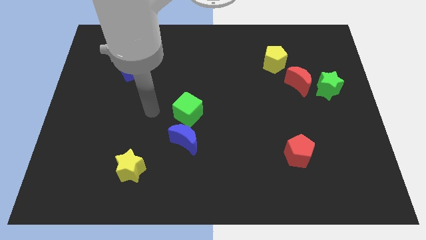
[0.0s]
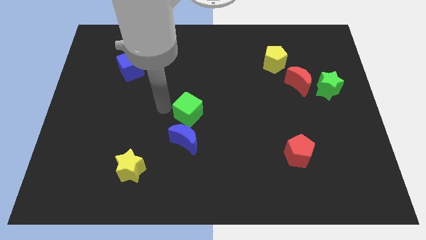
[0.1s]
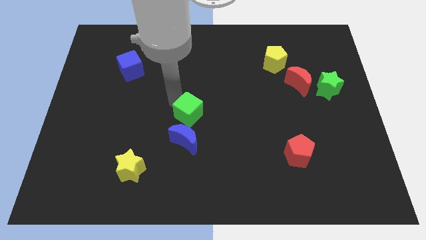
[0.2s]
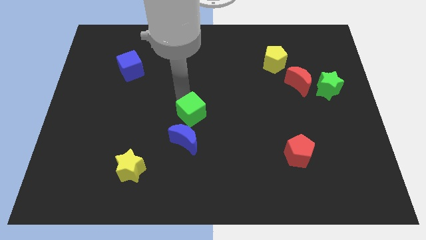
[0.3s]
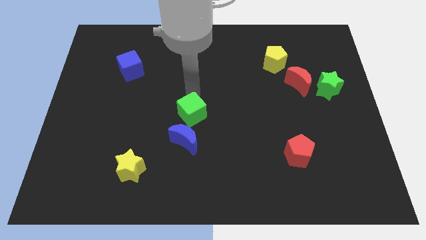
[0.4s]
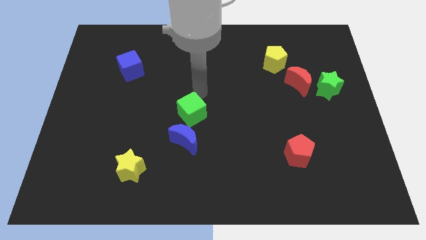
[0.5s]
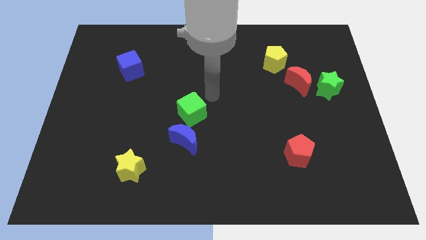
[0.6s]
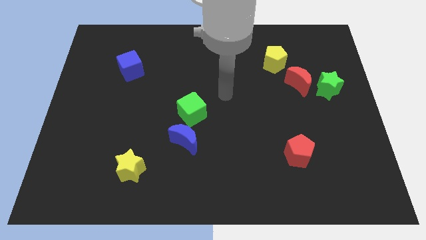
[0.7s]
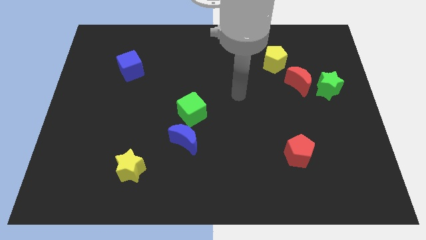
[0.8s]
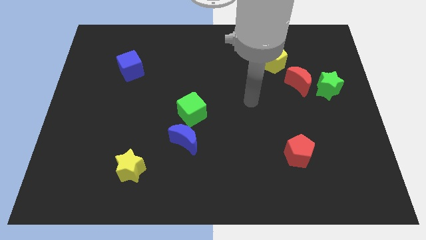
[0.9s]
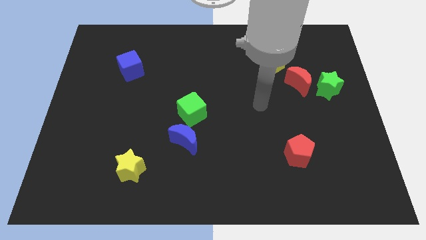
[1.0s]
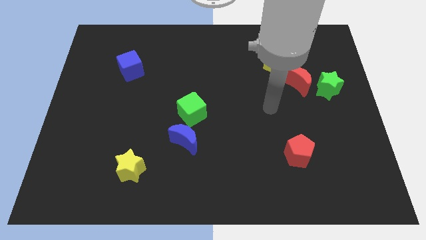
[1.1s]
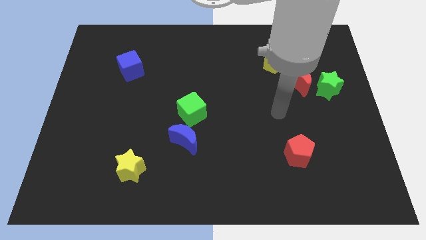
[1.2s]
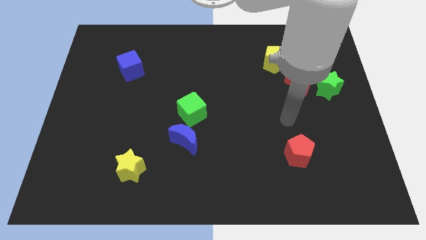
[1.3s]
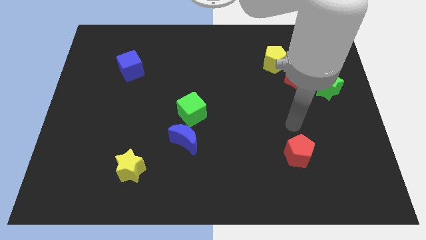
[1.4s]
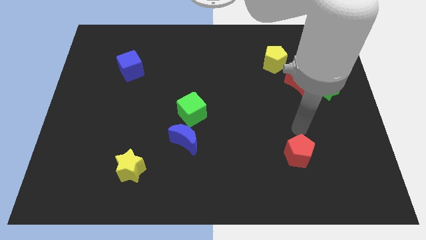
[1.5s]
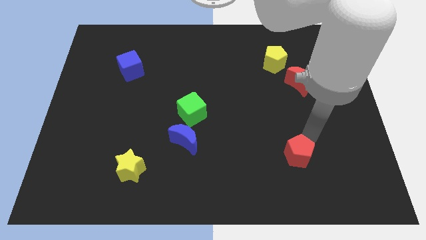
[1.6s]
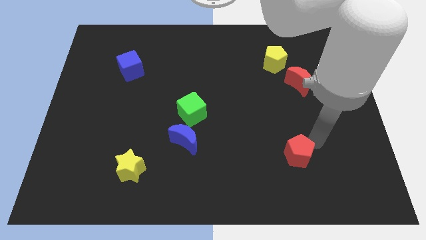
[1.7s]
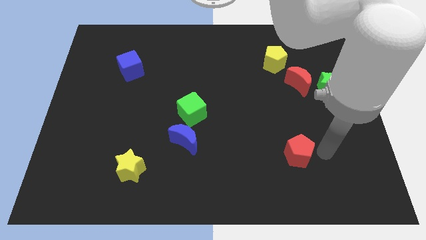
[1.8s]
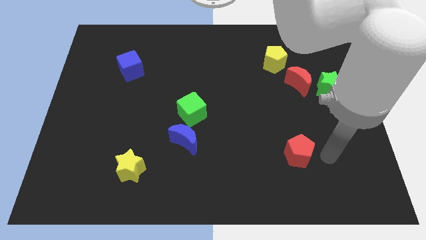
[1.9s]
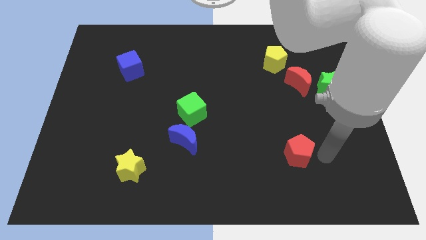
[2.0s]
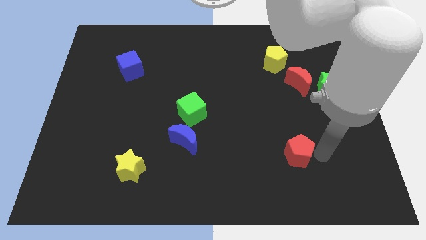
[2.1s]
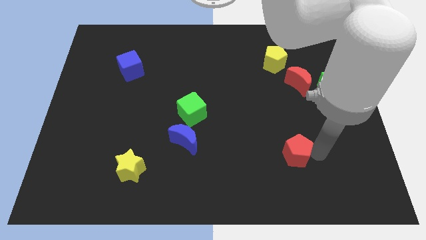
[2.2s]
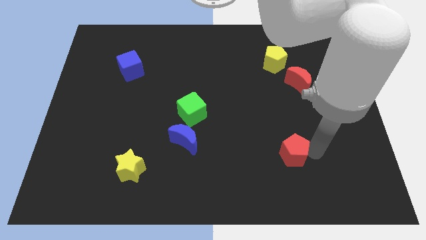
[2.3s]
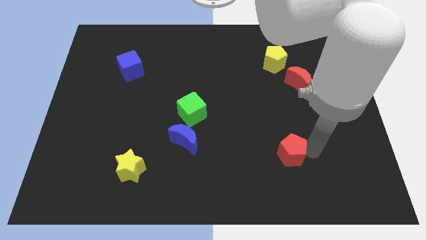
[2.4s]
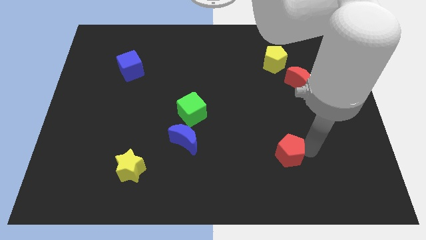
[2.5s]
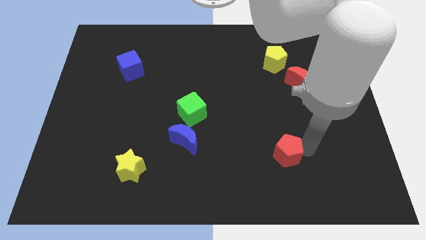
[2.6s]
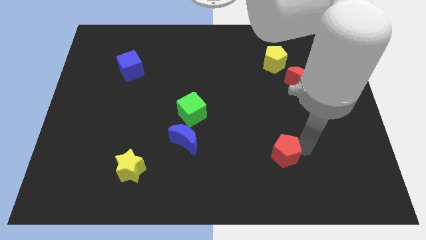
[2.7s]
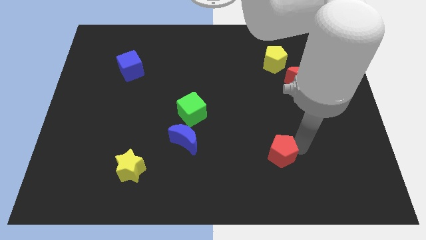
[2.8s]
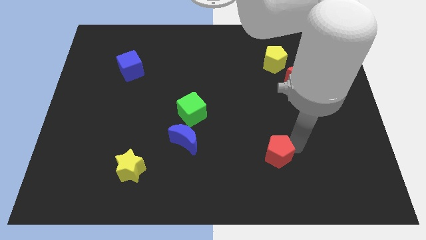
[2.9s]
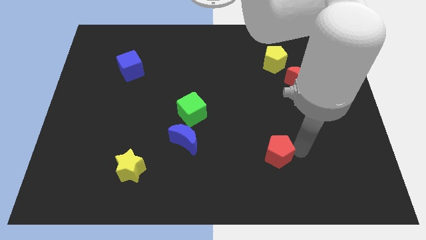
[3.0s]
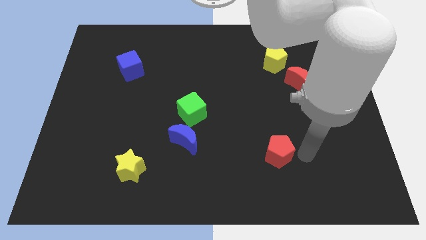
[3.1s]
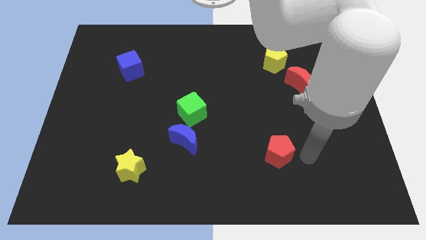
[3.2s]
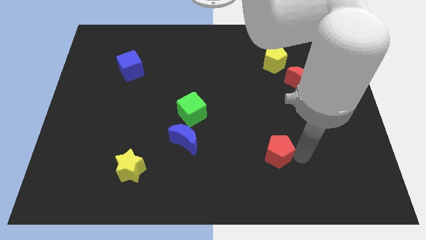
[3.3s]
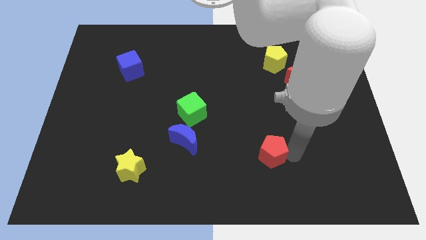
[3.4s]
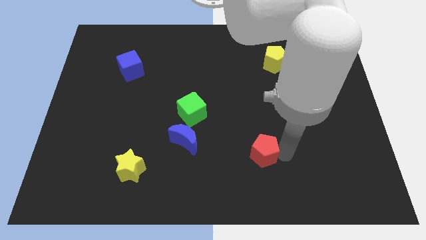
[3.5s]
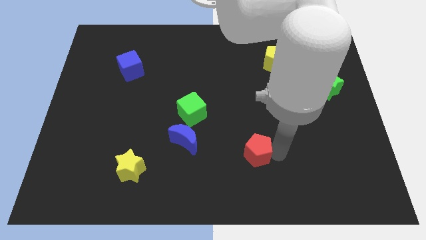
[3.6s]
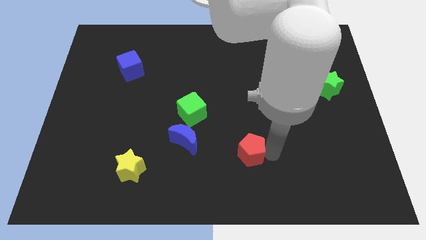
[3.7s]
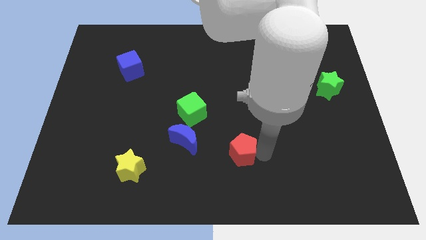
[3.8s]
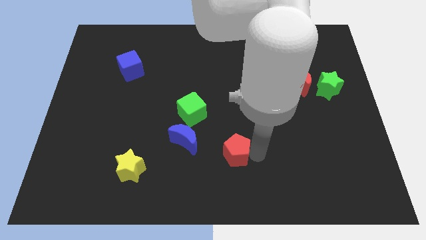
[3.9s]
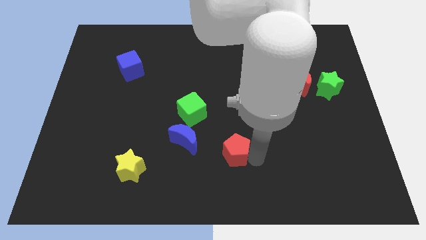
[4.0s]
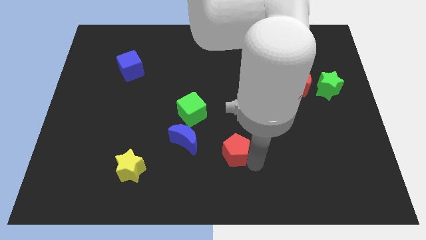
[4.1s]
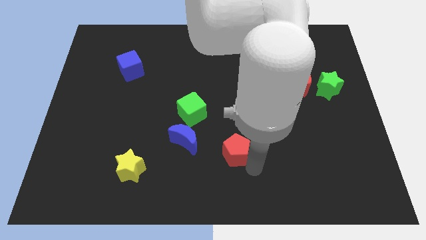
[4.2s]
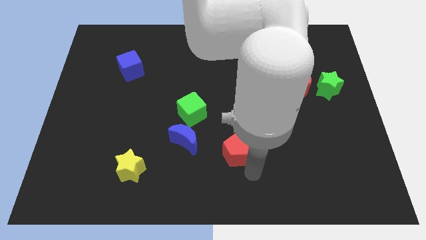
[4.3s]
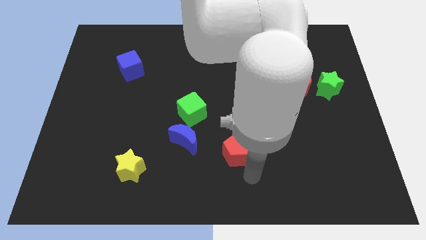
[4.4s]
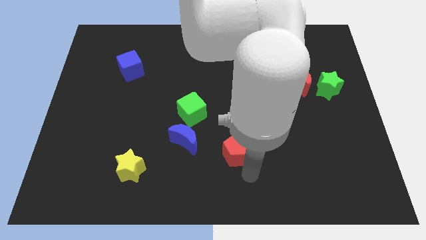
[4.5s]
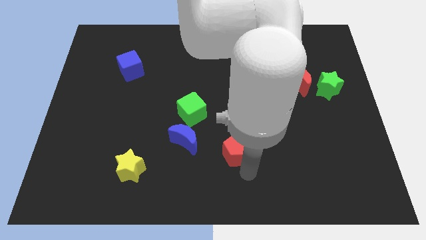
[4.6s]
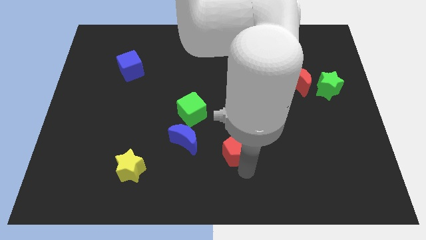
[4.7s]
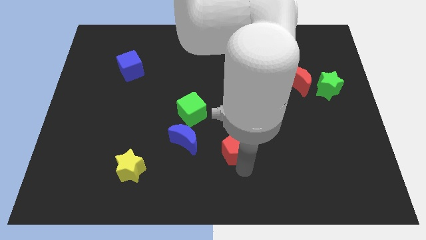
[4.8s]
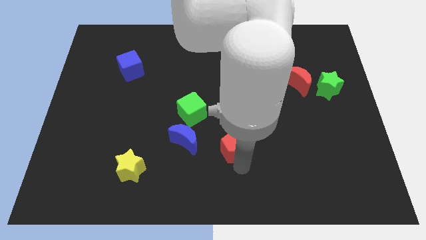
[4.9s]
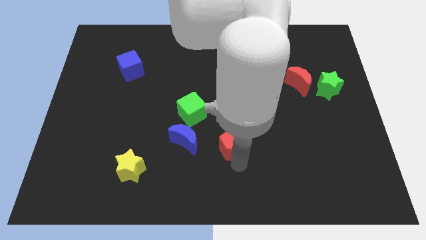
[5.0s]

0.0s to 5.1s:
put the red pentagon to the bottom right of the green cube

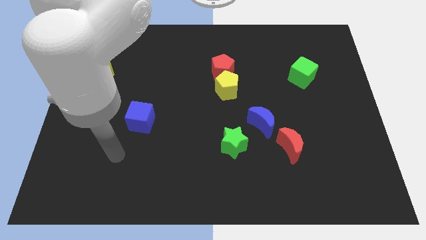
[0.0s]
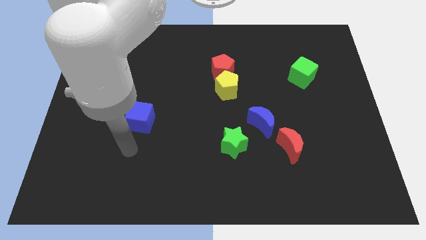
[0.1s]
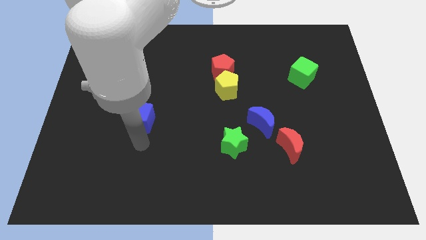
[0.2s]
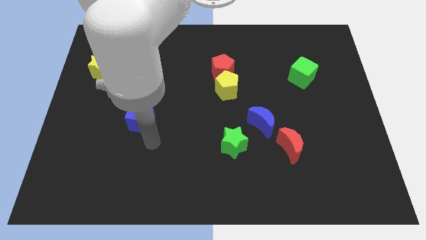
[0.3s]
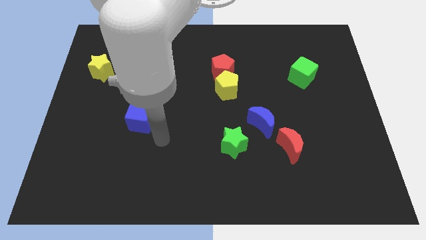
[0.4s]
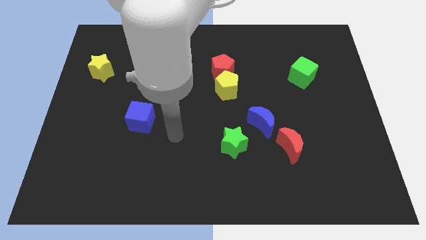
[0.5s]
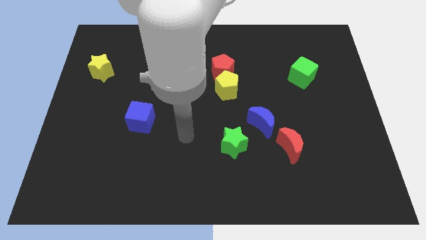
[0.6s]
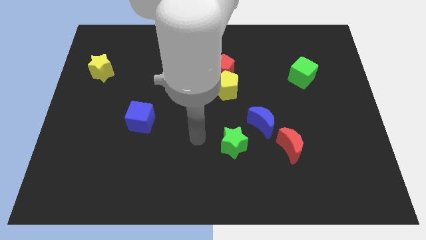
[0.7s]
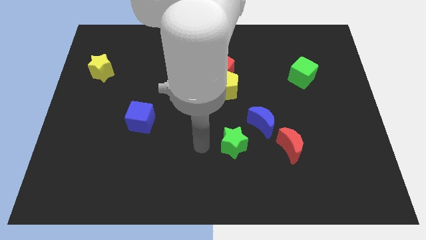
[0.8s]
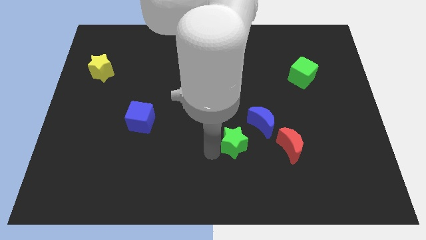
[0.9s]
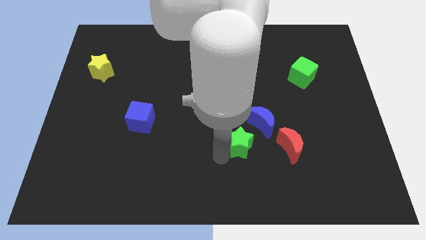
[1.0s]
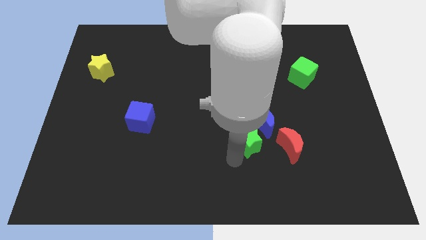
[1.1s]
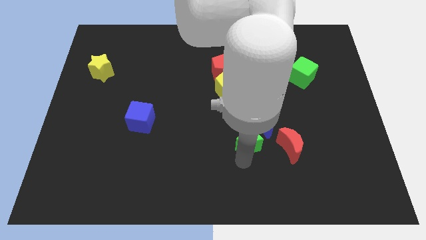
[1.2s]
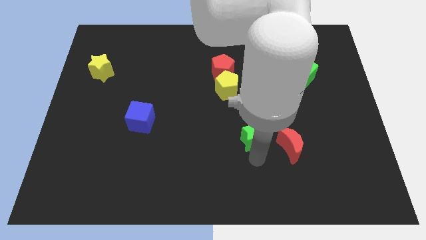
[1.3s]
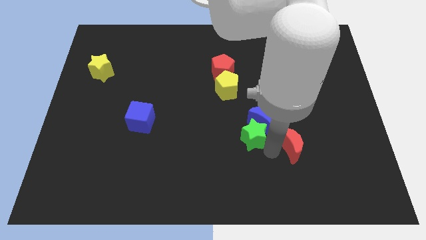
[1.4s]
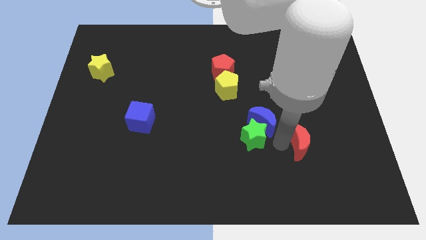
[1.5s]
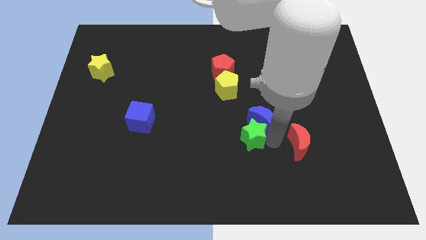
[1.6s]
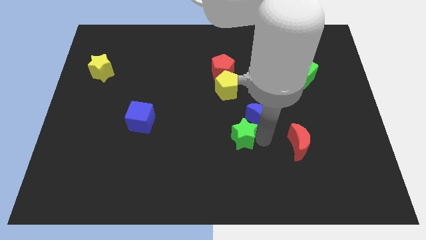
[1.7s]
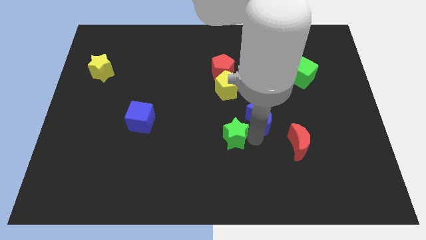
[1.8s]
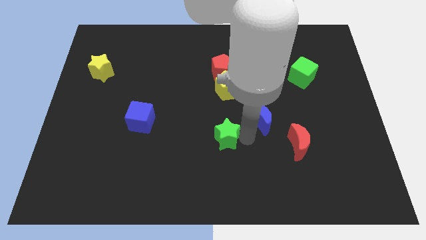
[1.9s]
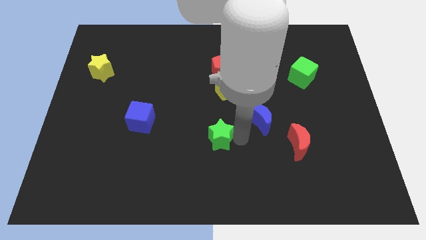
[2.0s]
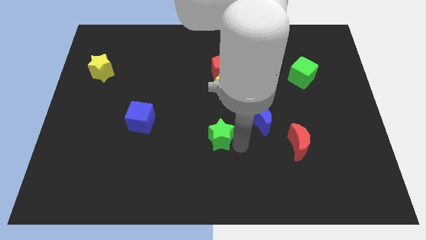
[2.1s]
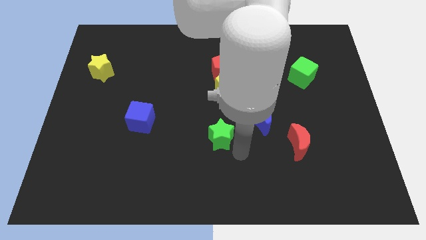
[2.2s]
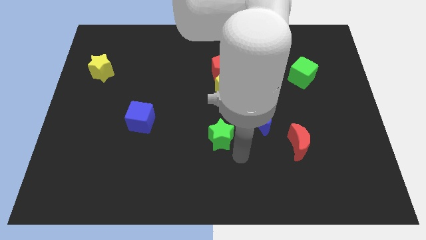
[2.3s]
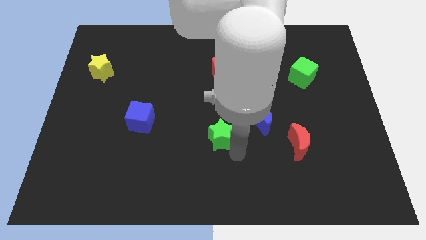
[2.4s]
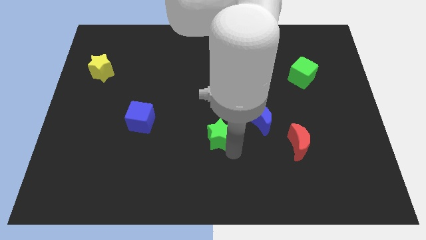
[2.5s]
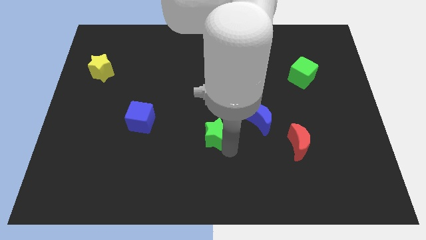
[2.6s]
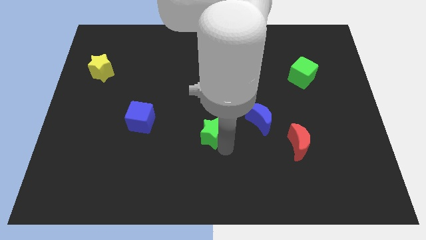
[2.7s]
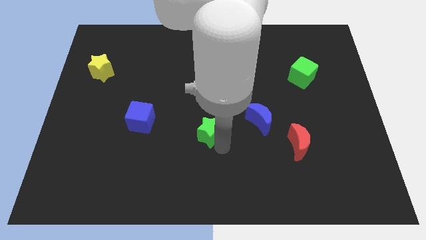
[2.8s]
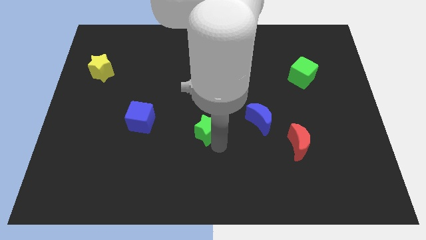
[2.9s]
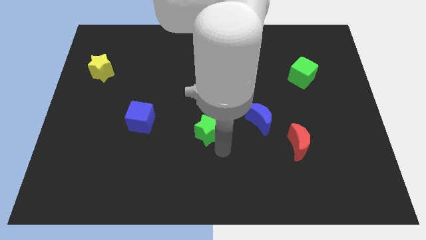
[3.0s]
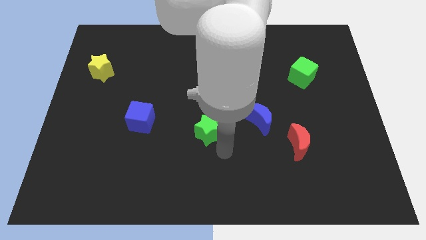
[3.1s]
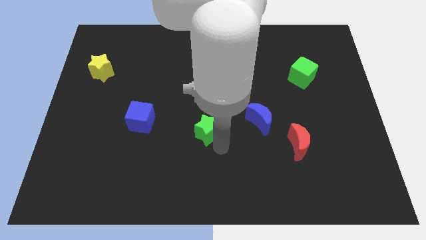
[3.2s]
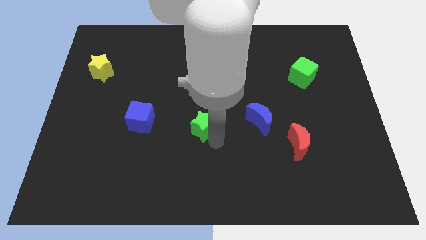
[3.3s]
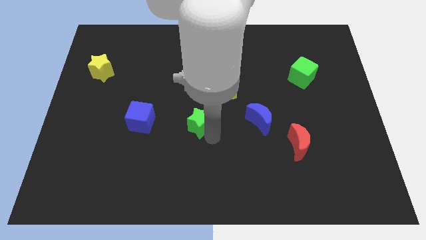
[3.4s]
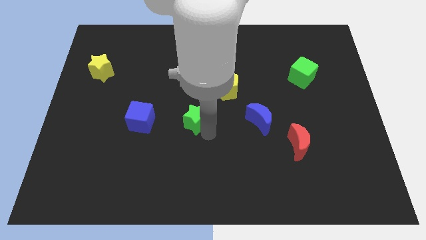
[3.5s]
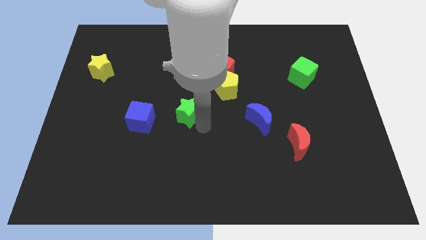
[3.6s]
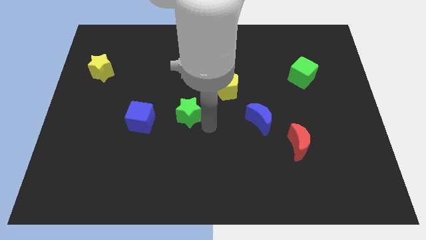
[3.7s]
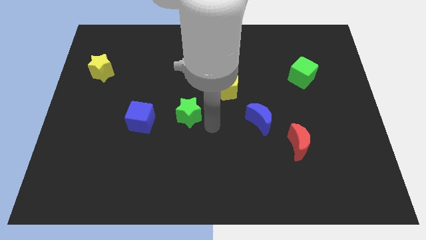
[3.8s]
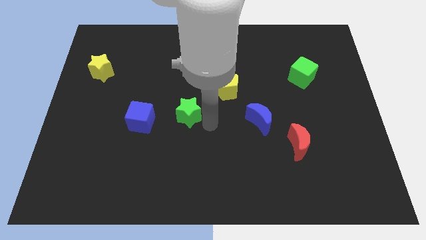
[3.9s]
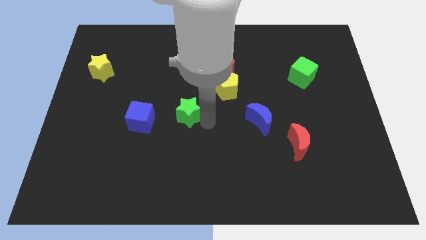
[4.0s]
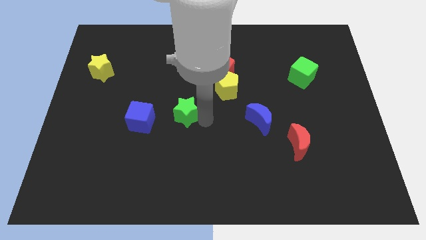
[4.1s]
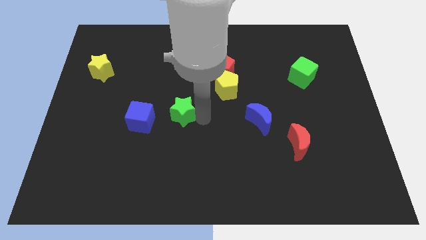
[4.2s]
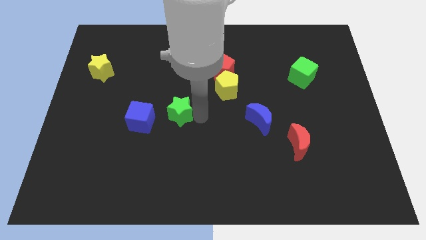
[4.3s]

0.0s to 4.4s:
push the green star diagonally up and to the right of the blue cube
